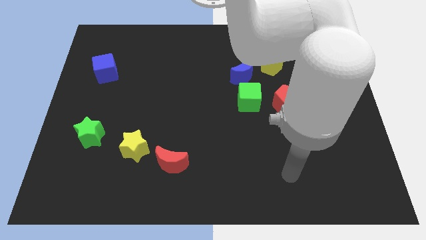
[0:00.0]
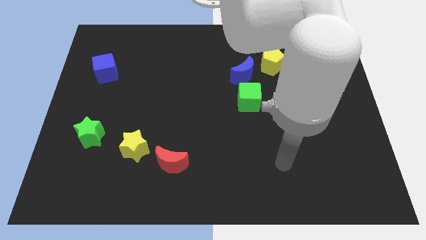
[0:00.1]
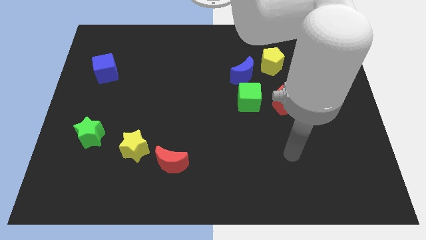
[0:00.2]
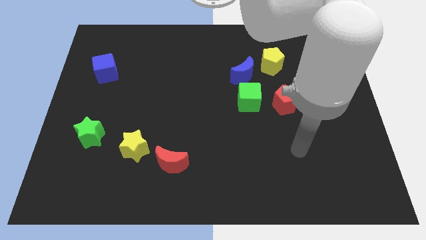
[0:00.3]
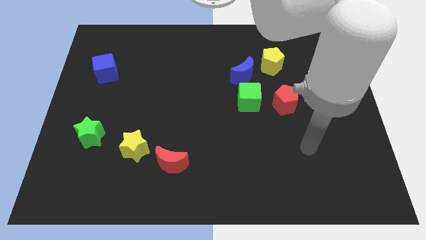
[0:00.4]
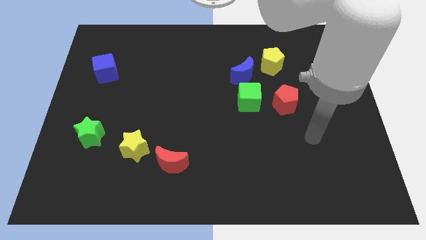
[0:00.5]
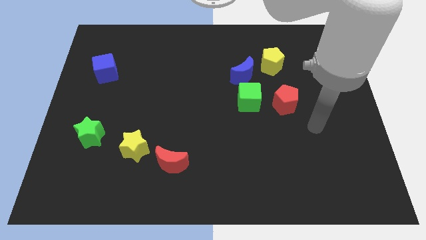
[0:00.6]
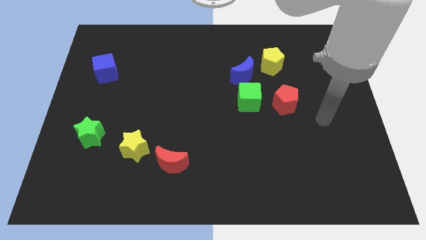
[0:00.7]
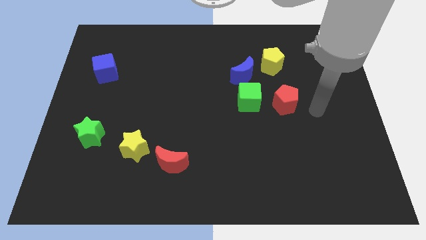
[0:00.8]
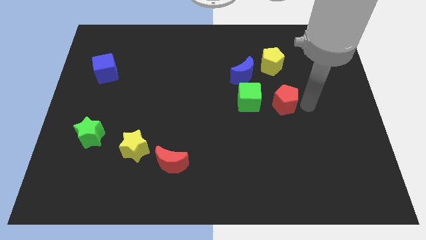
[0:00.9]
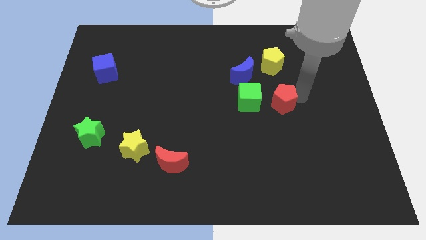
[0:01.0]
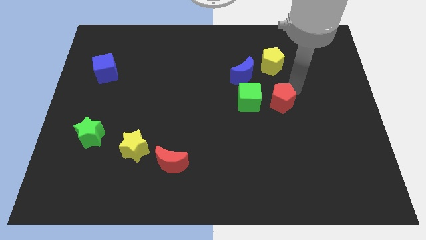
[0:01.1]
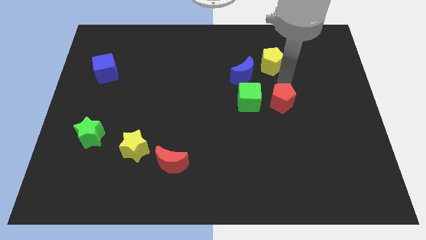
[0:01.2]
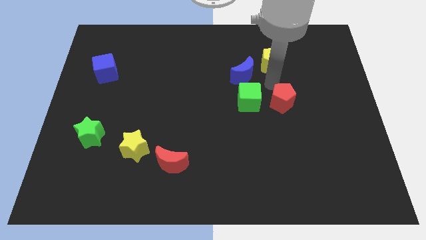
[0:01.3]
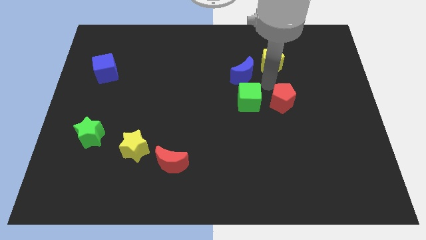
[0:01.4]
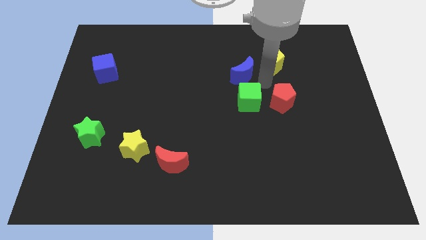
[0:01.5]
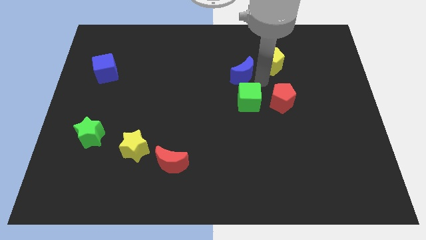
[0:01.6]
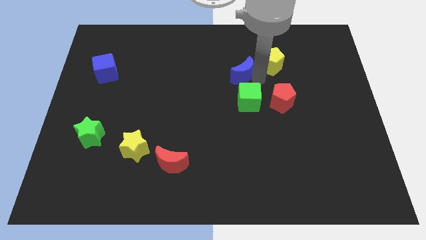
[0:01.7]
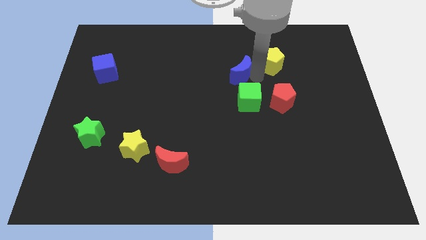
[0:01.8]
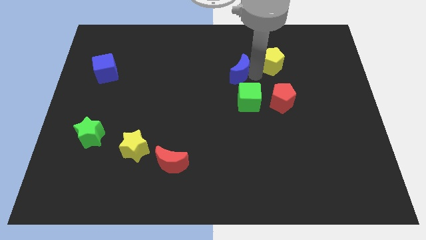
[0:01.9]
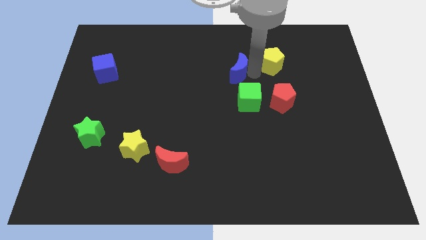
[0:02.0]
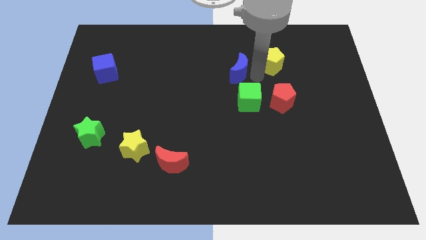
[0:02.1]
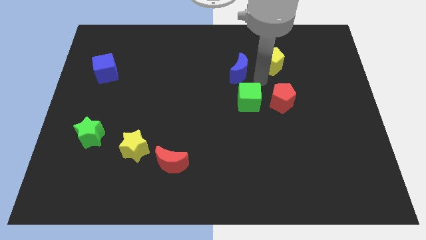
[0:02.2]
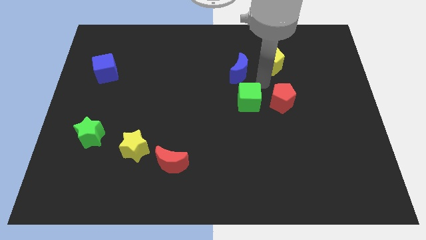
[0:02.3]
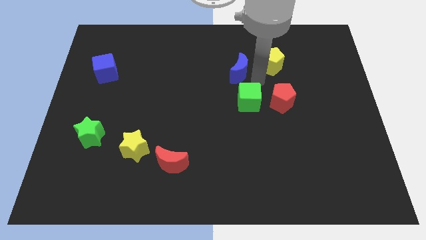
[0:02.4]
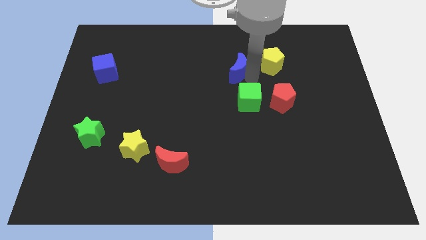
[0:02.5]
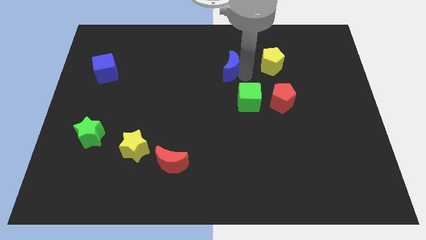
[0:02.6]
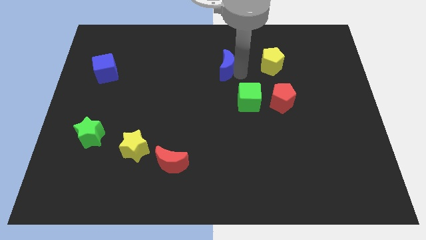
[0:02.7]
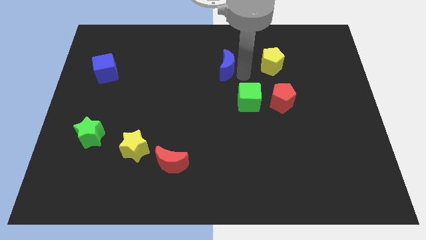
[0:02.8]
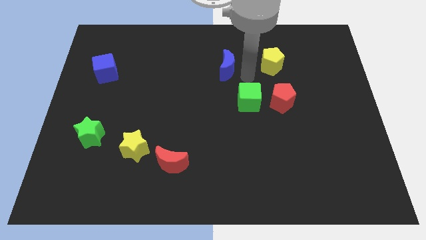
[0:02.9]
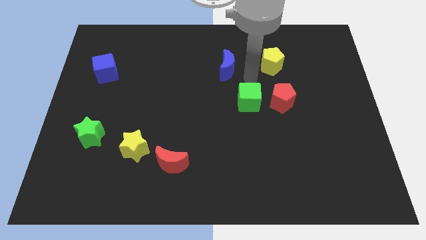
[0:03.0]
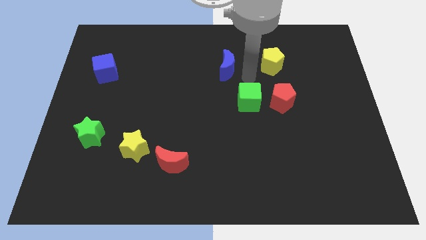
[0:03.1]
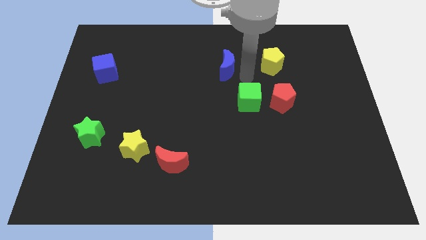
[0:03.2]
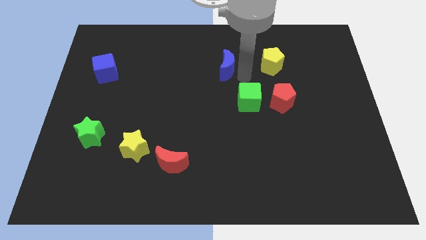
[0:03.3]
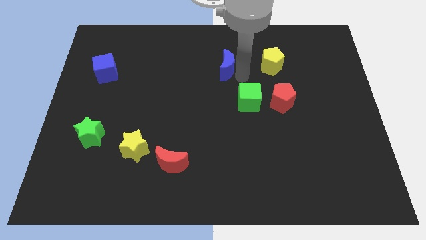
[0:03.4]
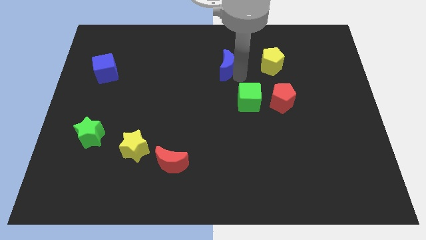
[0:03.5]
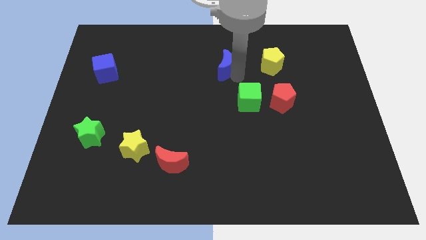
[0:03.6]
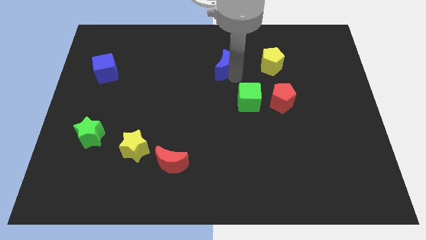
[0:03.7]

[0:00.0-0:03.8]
separate the blue moon from the green cube and yellow pentagon

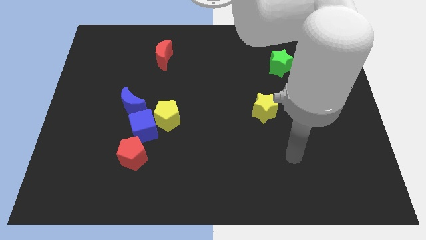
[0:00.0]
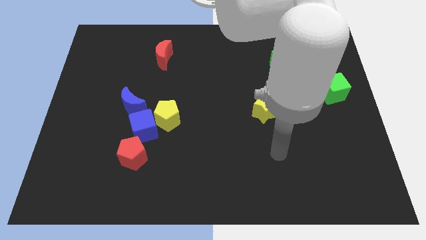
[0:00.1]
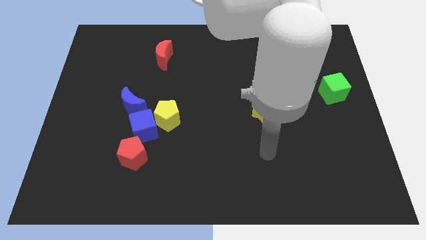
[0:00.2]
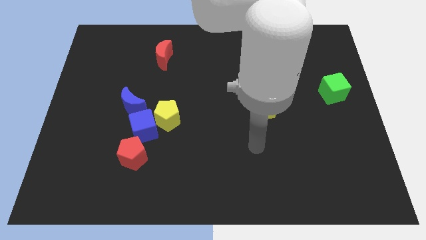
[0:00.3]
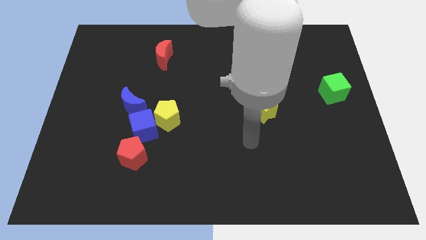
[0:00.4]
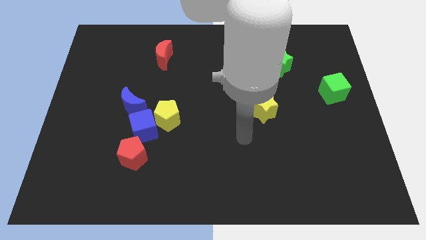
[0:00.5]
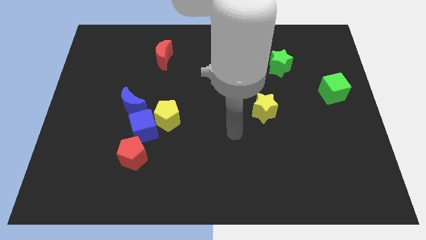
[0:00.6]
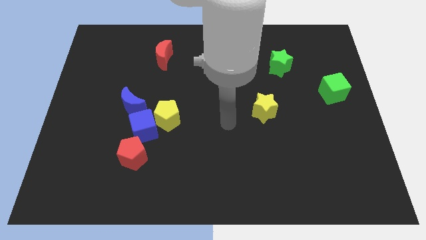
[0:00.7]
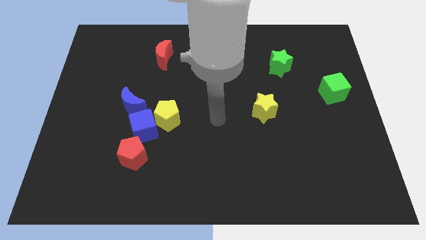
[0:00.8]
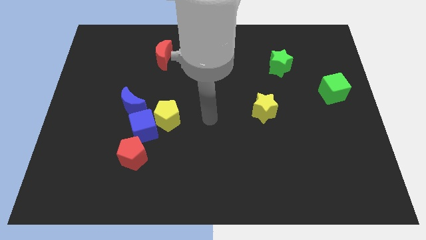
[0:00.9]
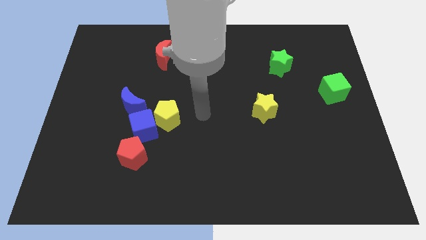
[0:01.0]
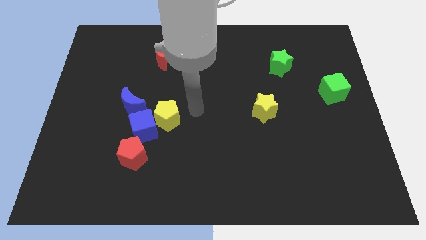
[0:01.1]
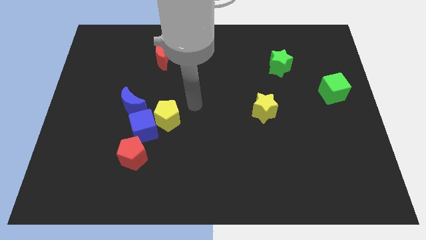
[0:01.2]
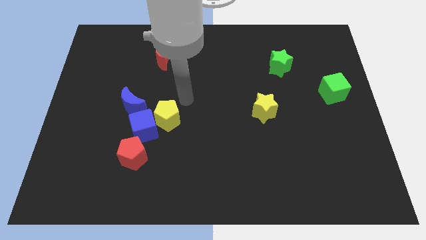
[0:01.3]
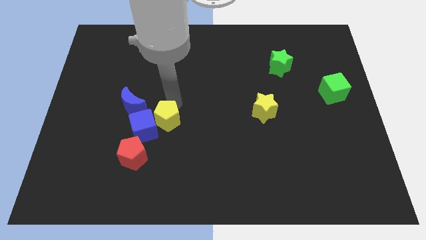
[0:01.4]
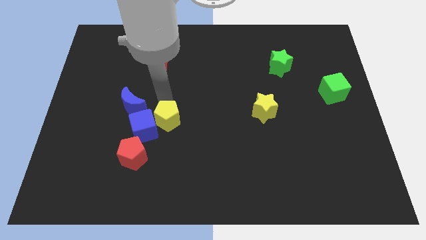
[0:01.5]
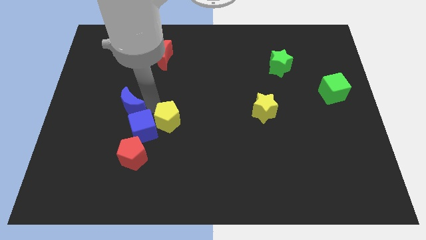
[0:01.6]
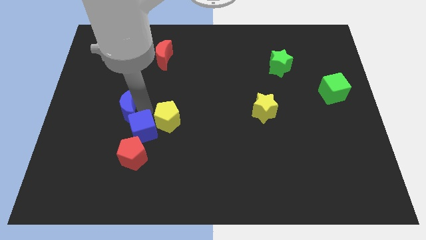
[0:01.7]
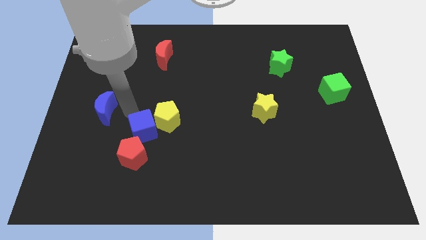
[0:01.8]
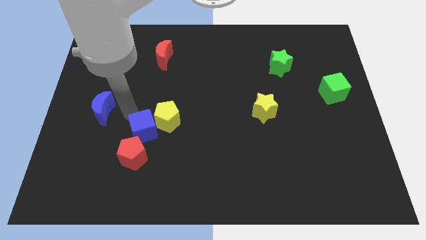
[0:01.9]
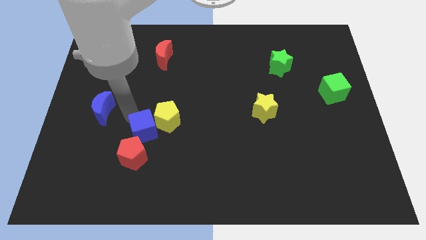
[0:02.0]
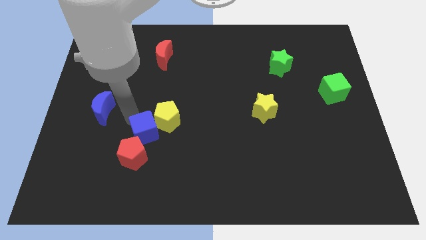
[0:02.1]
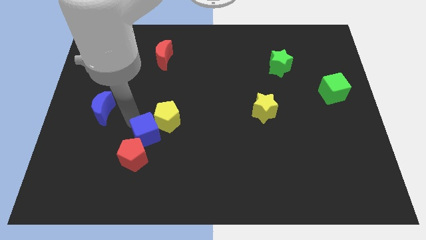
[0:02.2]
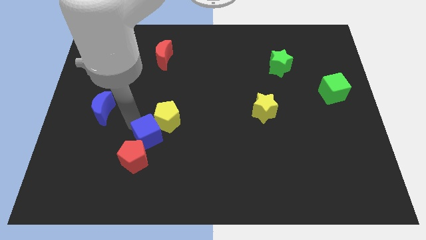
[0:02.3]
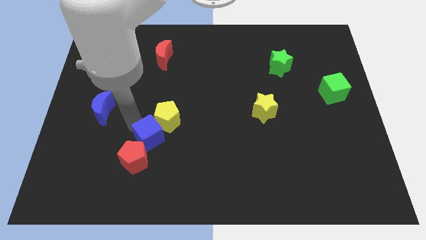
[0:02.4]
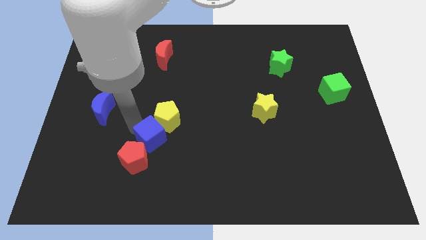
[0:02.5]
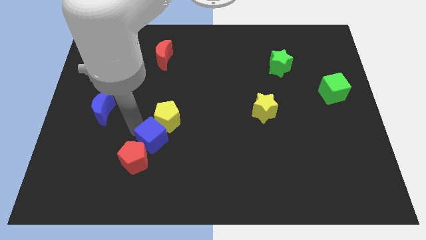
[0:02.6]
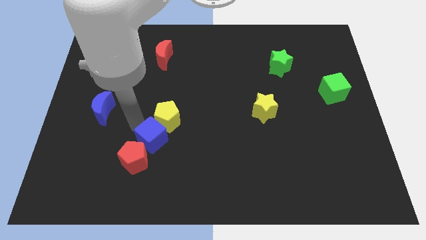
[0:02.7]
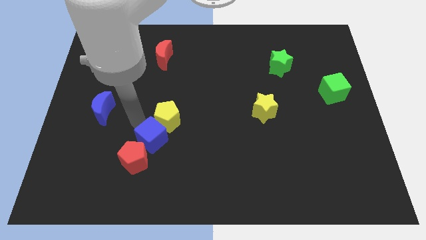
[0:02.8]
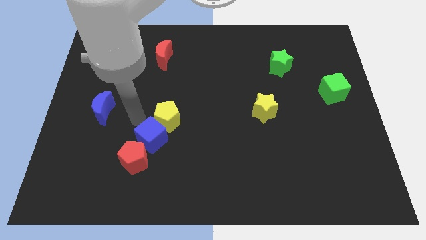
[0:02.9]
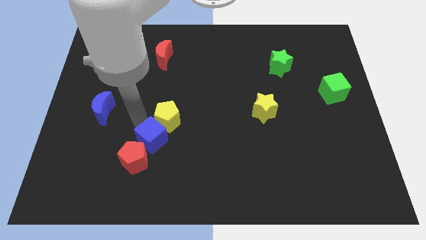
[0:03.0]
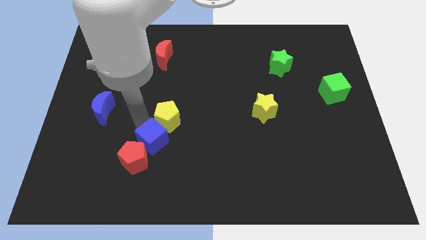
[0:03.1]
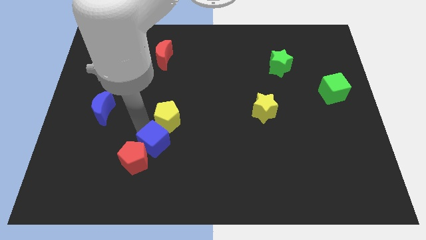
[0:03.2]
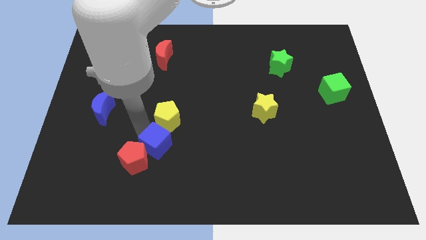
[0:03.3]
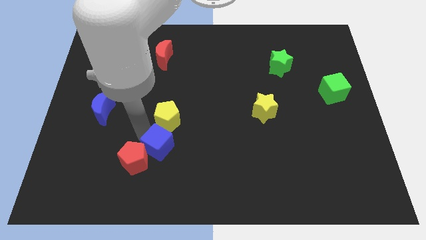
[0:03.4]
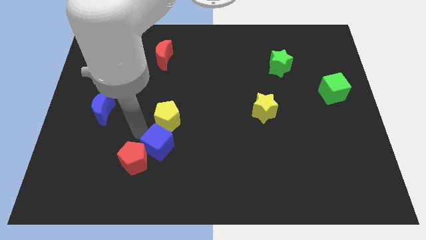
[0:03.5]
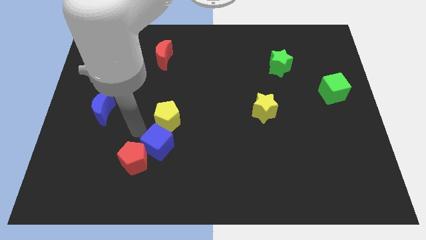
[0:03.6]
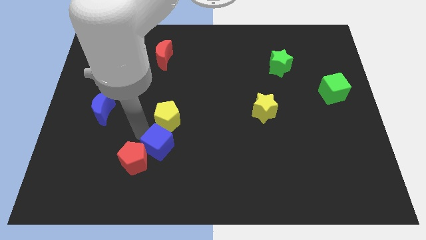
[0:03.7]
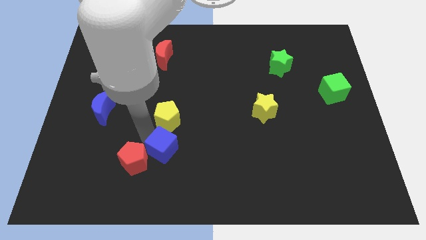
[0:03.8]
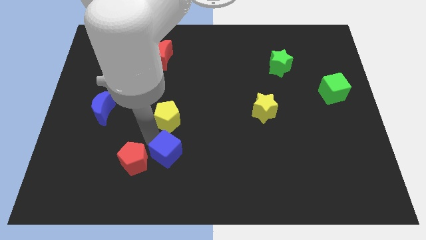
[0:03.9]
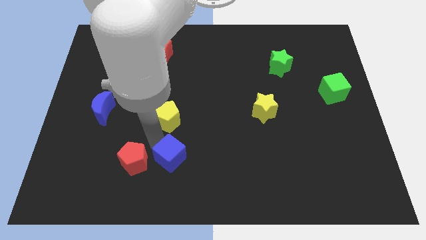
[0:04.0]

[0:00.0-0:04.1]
move the blue cube away from the group of blocks

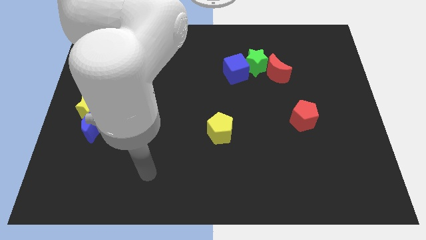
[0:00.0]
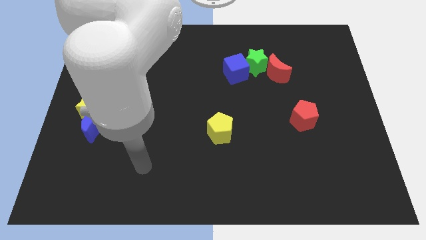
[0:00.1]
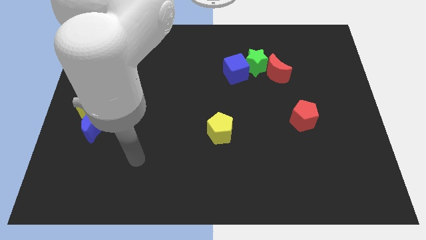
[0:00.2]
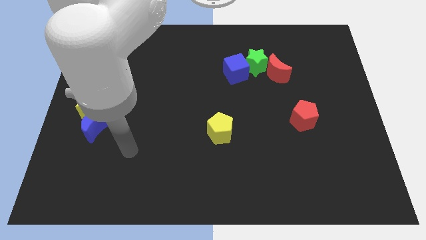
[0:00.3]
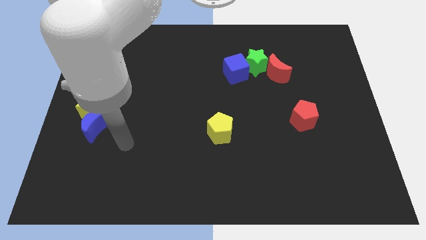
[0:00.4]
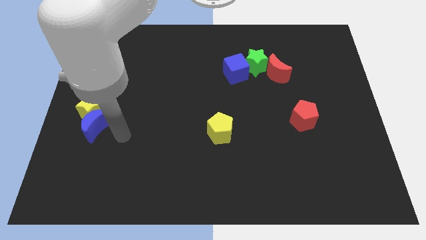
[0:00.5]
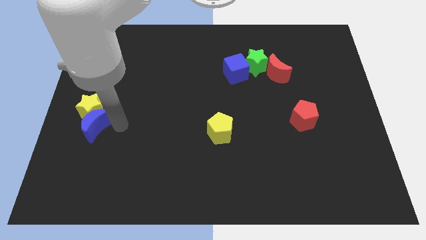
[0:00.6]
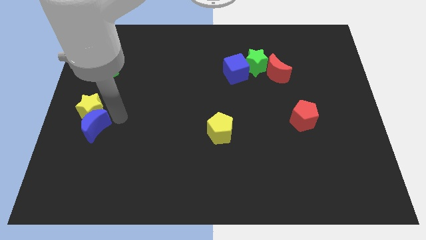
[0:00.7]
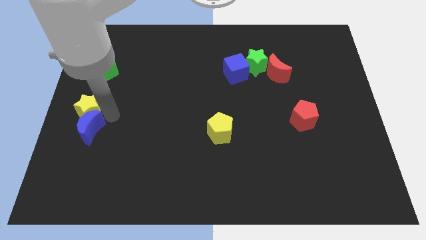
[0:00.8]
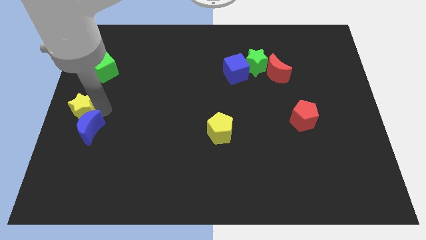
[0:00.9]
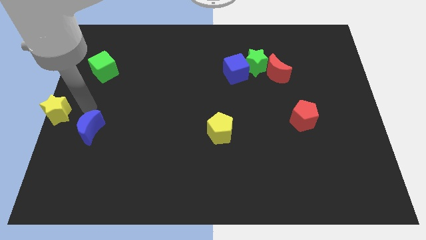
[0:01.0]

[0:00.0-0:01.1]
separate the blue moon from the yellow star

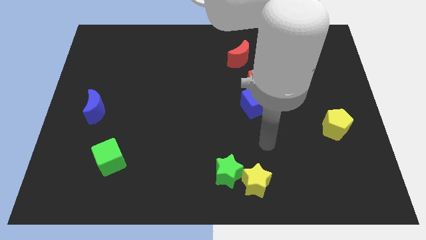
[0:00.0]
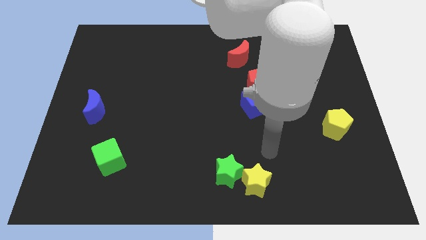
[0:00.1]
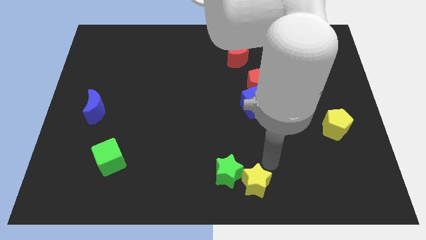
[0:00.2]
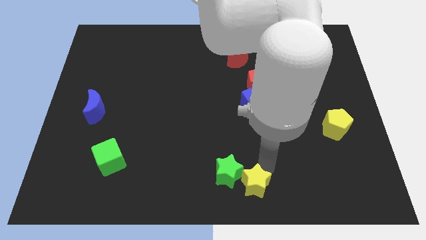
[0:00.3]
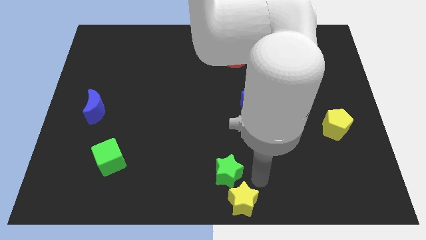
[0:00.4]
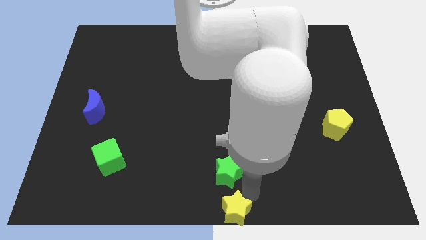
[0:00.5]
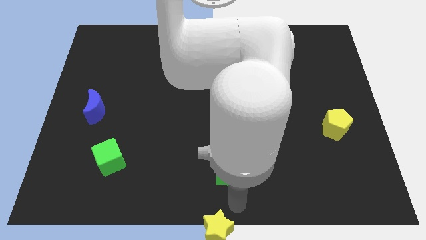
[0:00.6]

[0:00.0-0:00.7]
pull the green star apart from the yellow star
